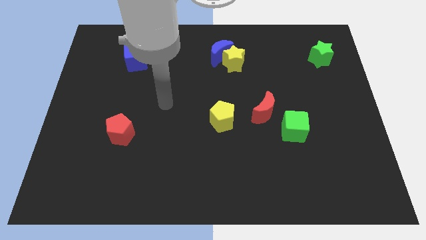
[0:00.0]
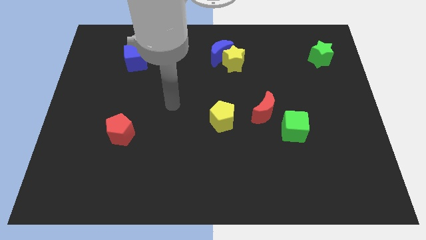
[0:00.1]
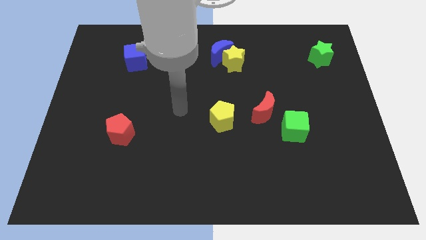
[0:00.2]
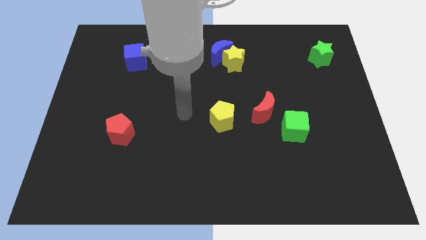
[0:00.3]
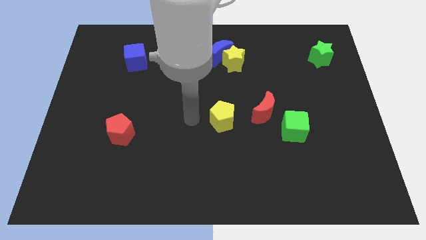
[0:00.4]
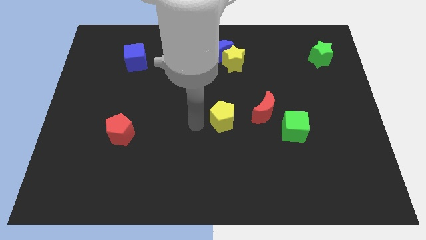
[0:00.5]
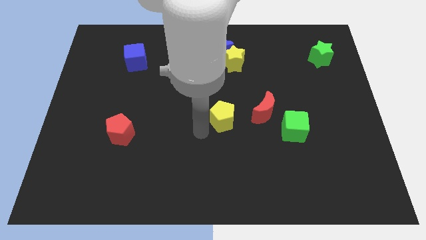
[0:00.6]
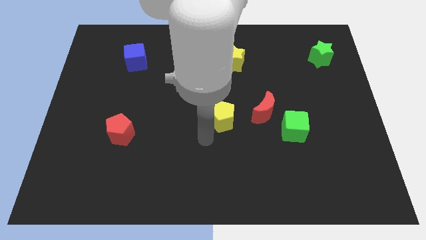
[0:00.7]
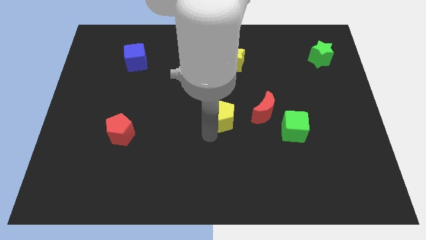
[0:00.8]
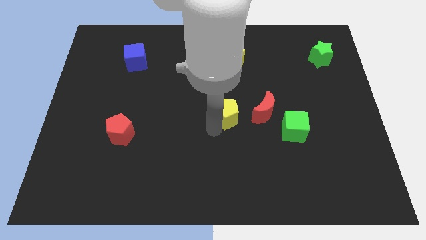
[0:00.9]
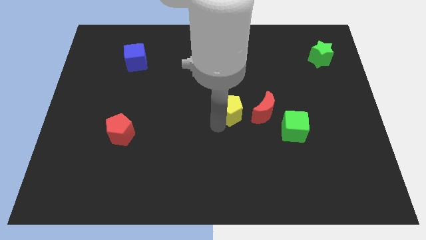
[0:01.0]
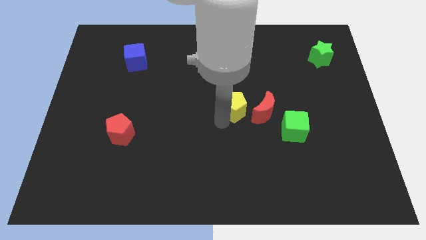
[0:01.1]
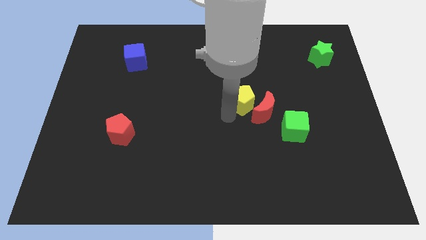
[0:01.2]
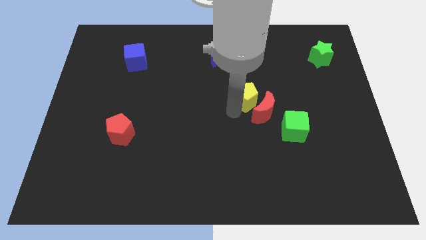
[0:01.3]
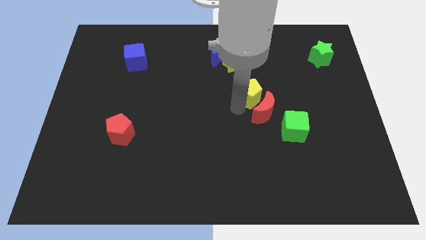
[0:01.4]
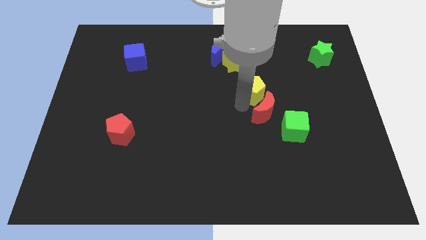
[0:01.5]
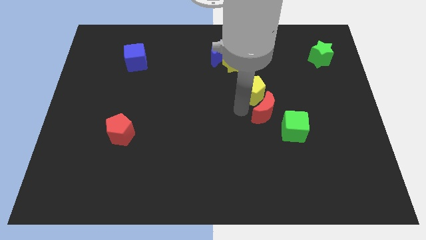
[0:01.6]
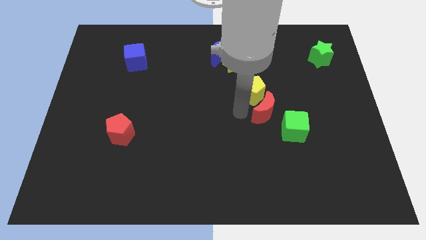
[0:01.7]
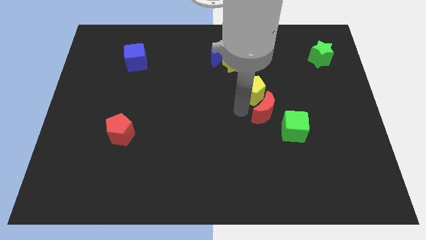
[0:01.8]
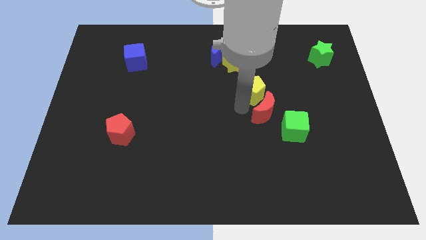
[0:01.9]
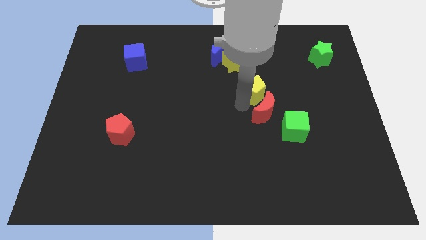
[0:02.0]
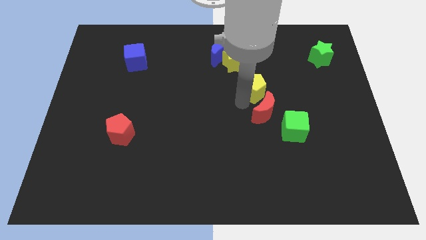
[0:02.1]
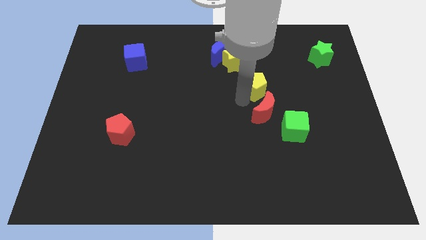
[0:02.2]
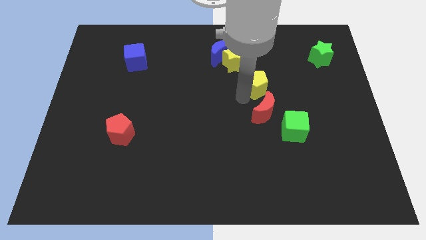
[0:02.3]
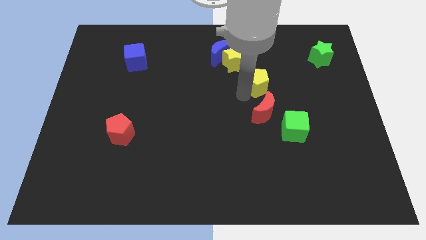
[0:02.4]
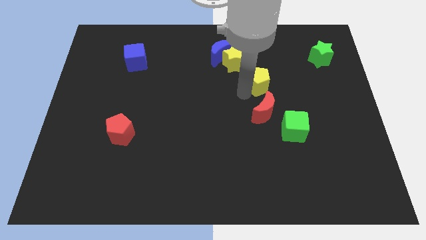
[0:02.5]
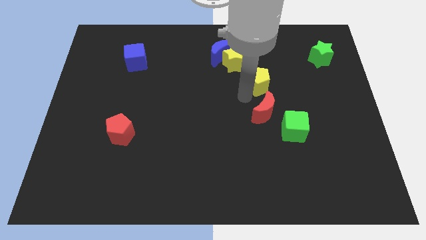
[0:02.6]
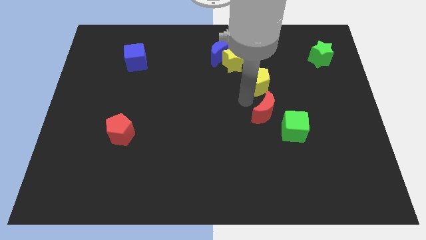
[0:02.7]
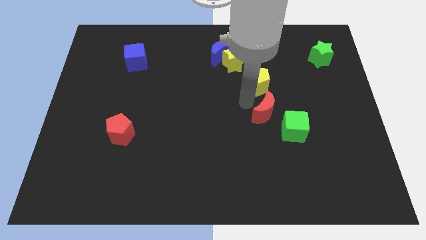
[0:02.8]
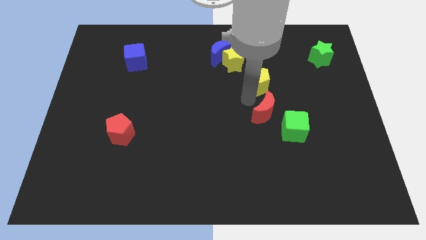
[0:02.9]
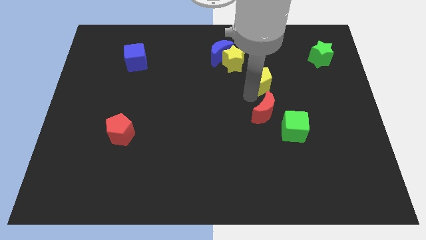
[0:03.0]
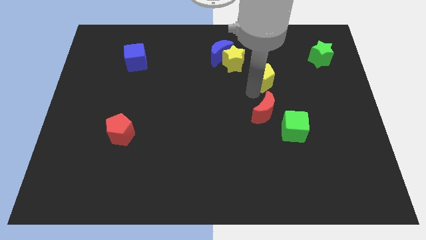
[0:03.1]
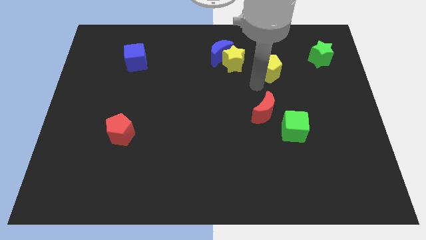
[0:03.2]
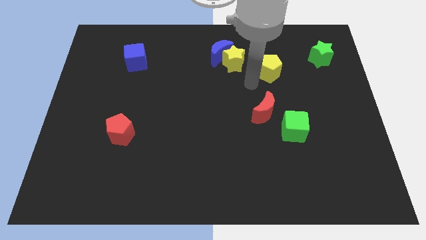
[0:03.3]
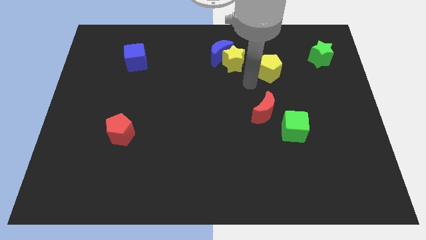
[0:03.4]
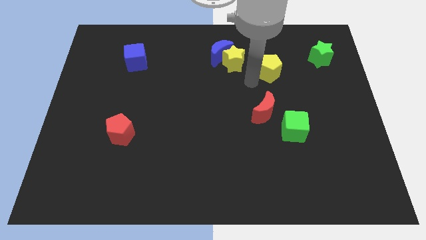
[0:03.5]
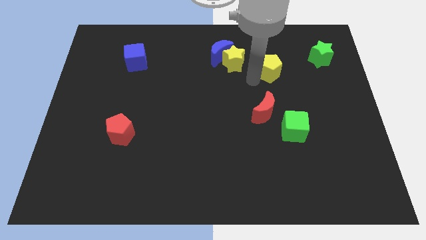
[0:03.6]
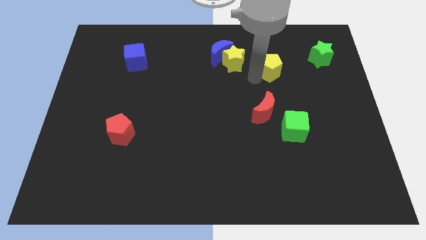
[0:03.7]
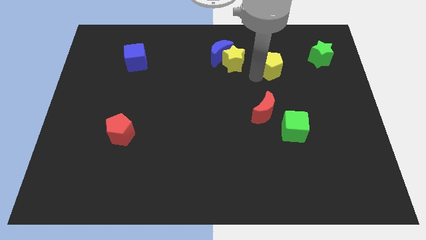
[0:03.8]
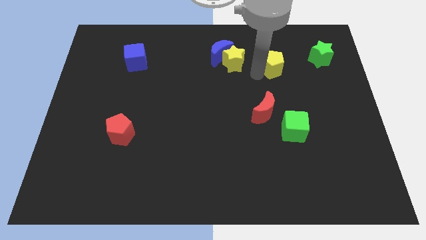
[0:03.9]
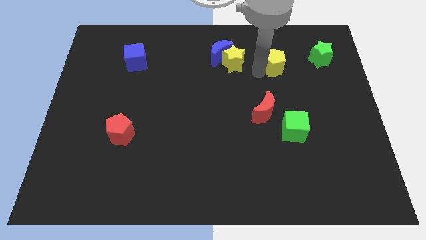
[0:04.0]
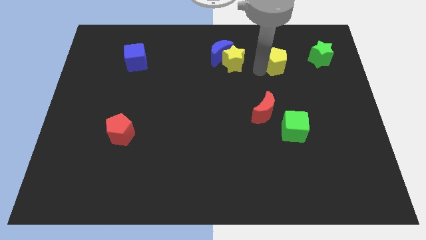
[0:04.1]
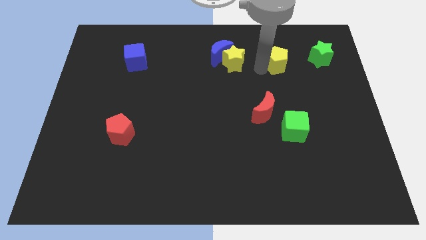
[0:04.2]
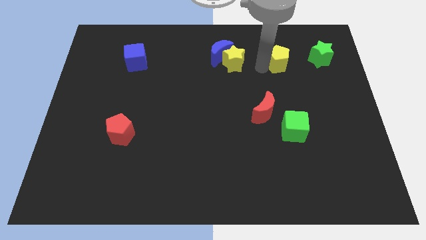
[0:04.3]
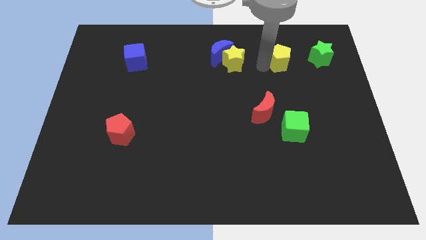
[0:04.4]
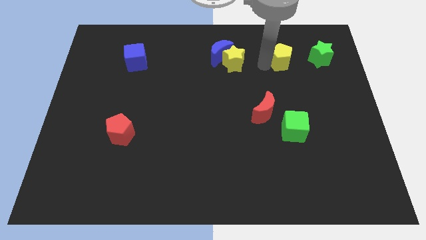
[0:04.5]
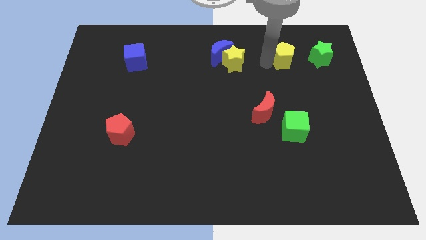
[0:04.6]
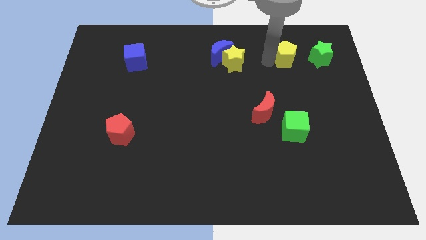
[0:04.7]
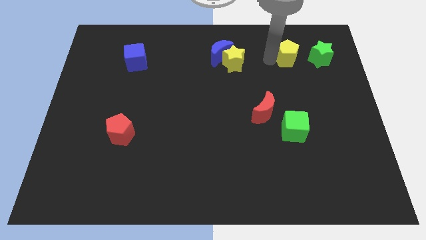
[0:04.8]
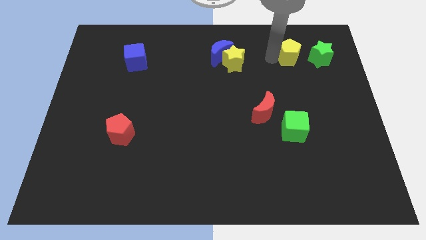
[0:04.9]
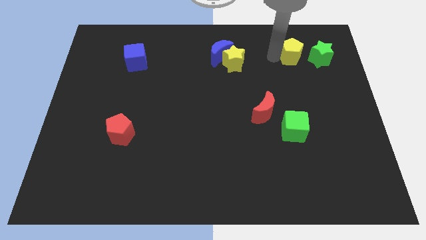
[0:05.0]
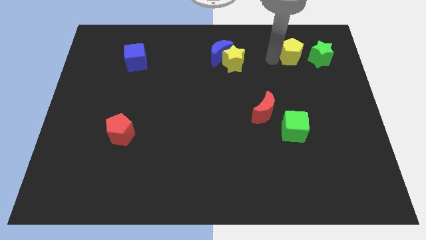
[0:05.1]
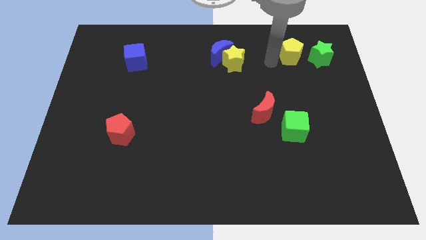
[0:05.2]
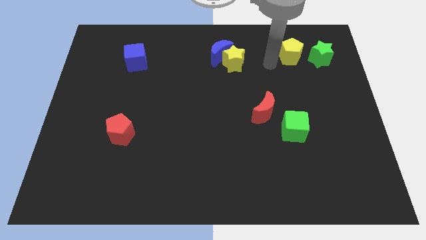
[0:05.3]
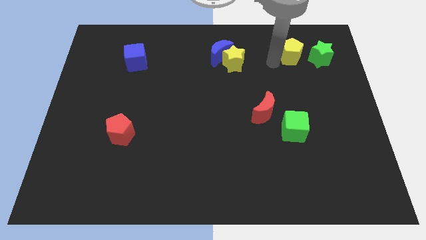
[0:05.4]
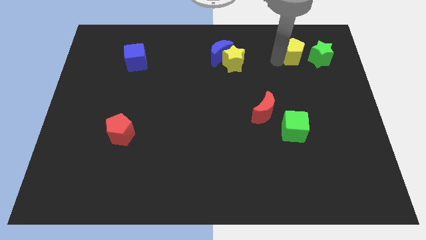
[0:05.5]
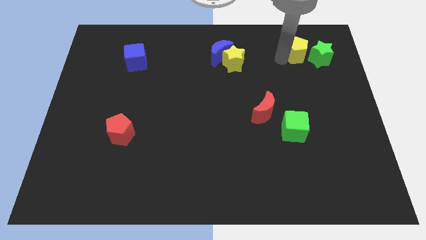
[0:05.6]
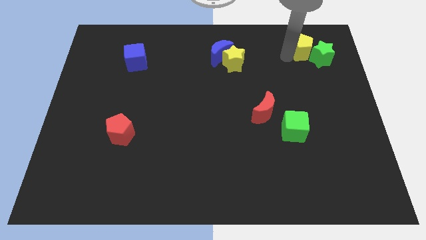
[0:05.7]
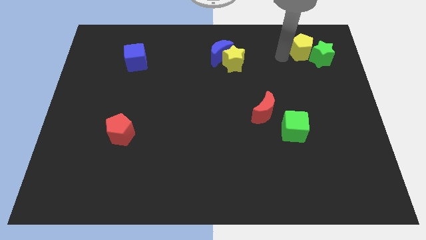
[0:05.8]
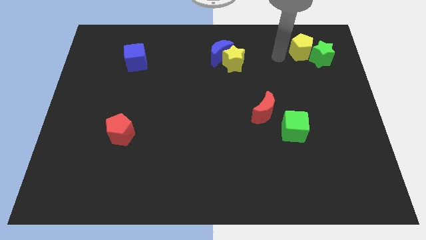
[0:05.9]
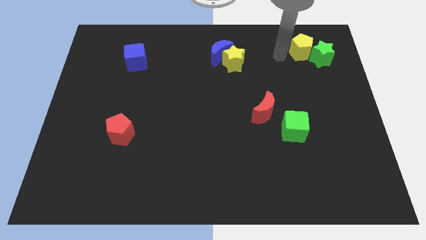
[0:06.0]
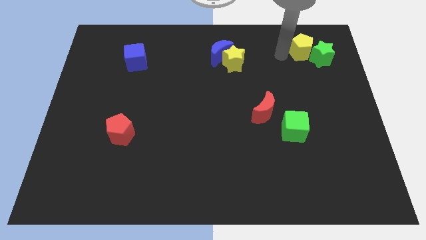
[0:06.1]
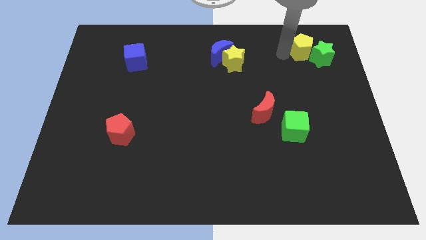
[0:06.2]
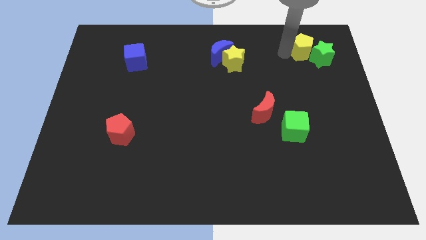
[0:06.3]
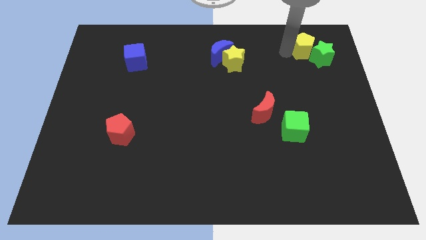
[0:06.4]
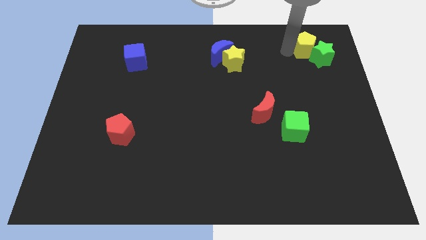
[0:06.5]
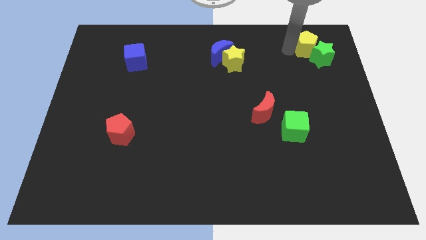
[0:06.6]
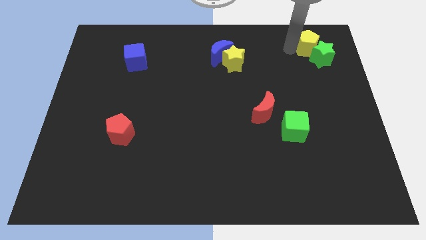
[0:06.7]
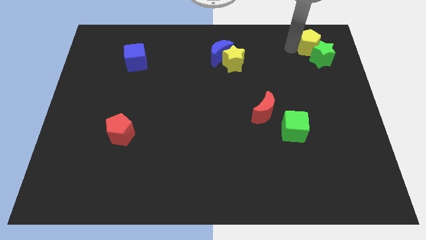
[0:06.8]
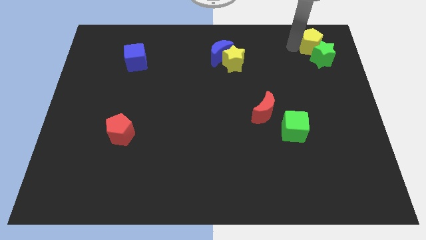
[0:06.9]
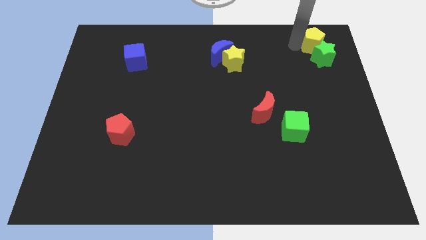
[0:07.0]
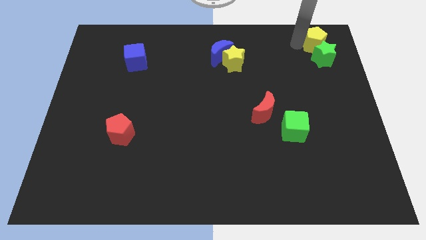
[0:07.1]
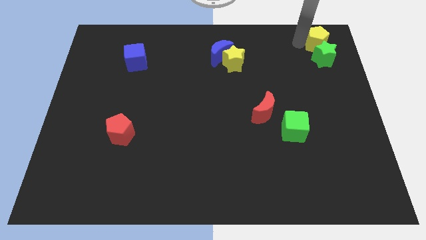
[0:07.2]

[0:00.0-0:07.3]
move the yellow pentagon to the top right of the board

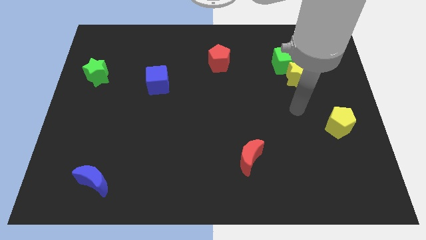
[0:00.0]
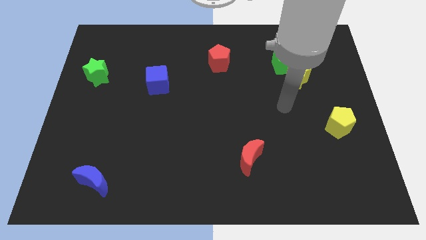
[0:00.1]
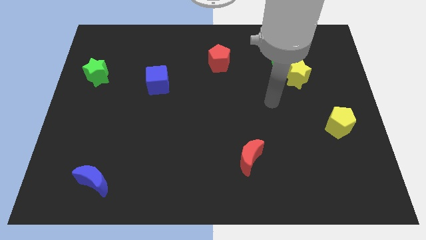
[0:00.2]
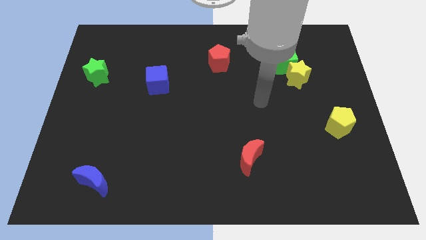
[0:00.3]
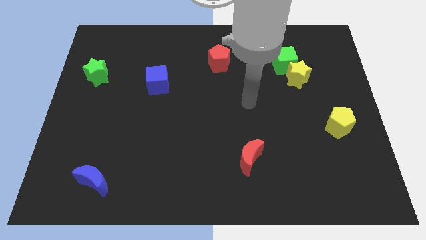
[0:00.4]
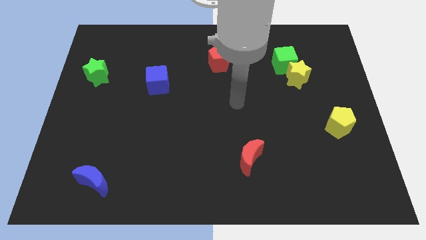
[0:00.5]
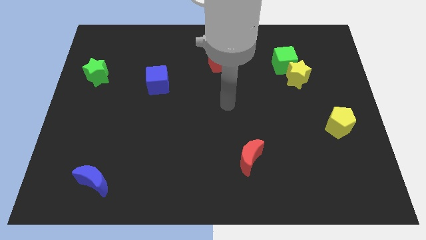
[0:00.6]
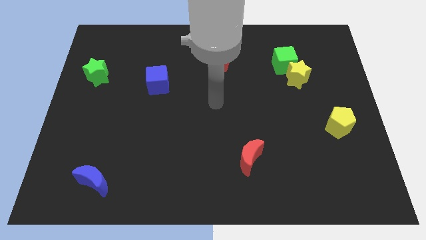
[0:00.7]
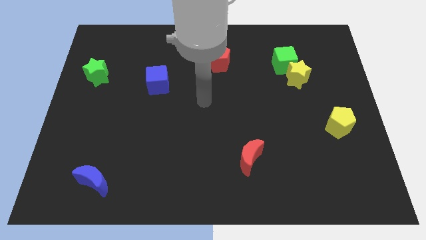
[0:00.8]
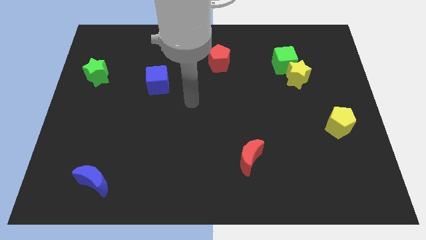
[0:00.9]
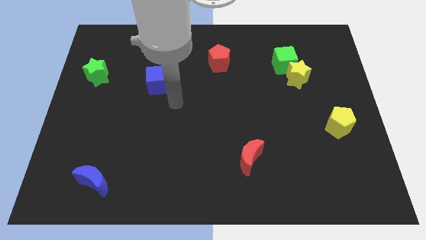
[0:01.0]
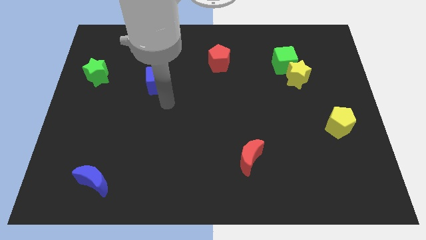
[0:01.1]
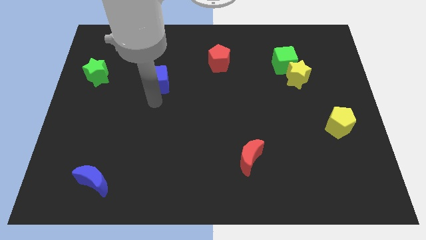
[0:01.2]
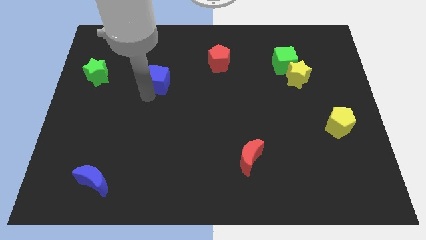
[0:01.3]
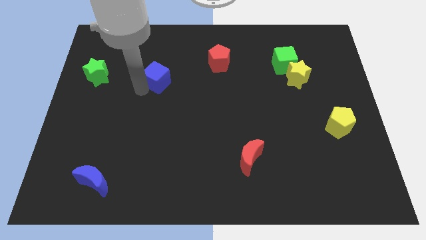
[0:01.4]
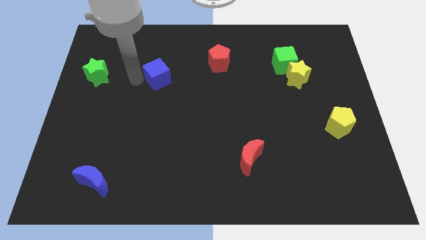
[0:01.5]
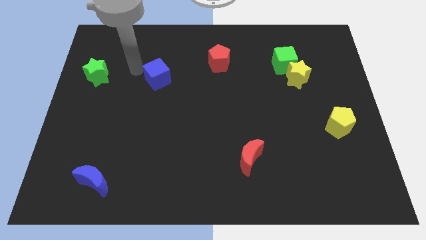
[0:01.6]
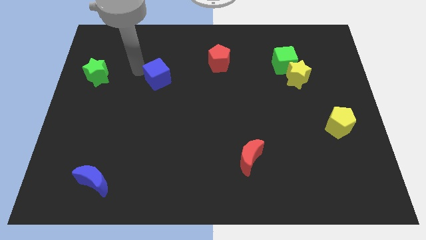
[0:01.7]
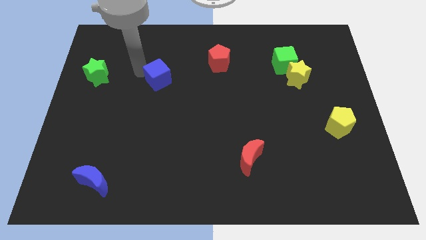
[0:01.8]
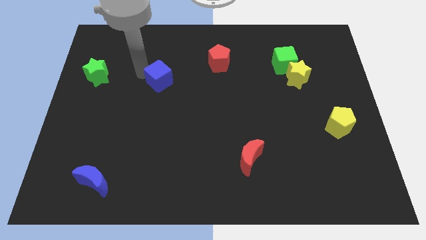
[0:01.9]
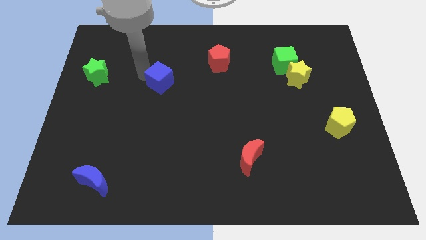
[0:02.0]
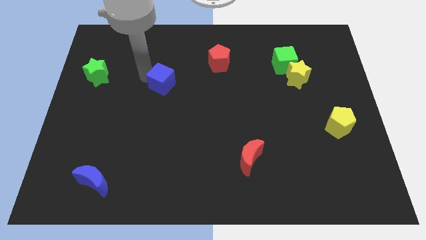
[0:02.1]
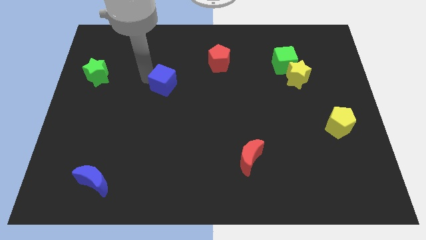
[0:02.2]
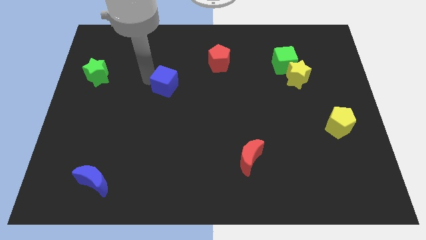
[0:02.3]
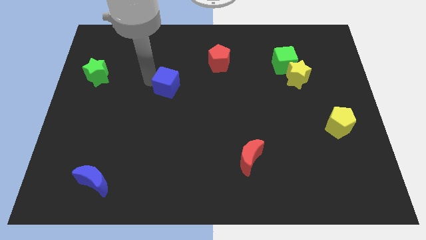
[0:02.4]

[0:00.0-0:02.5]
put the blue cube to the center of the board
